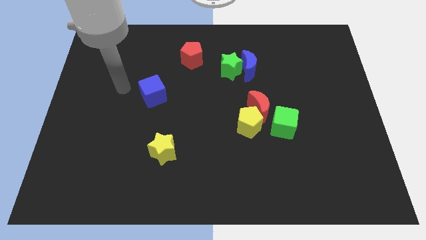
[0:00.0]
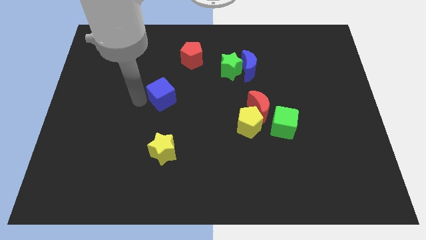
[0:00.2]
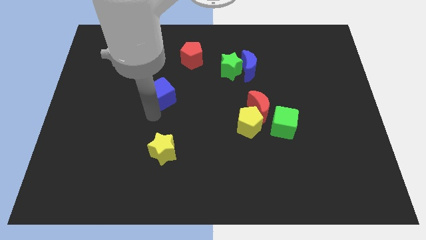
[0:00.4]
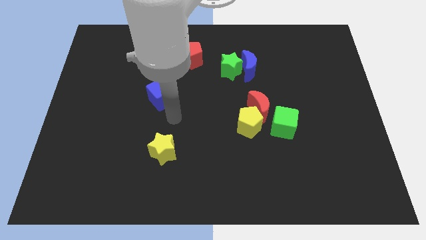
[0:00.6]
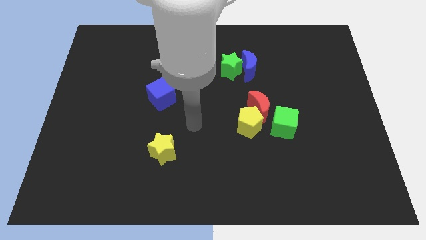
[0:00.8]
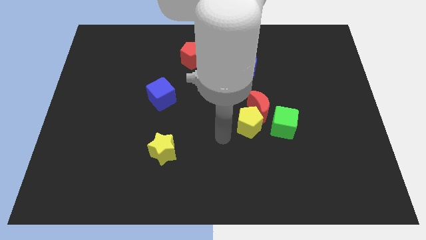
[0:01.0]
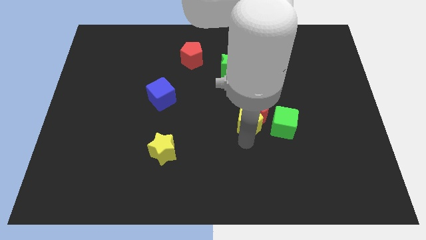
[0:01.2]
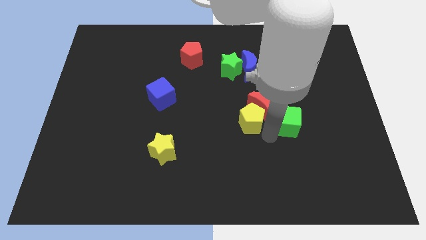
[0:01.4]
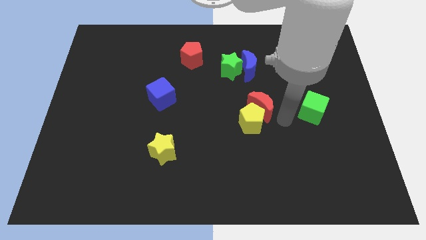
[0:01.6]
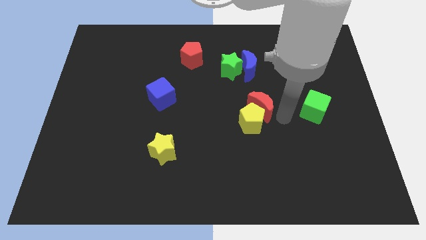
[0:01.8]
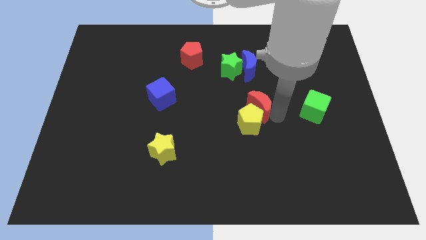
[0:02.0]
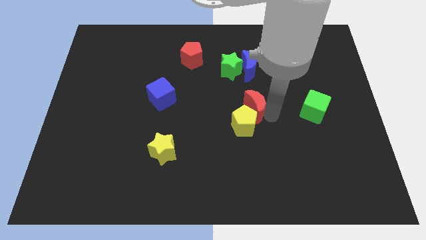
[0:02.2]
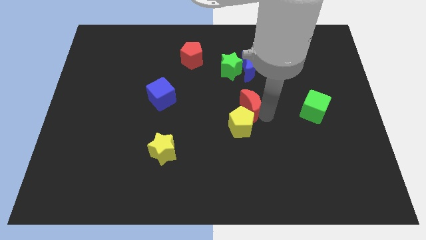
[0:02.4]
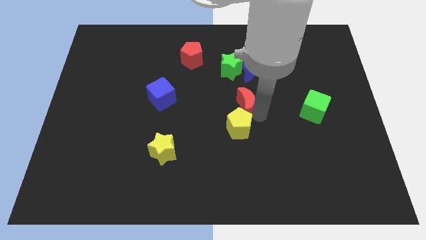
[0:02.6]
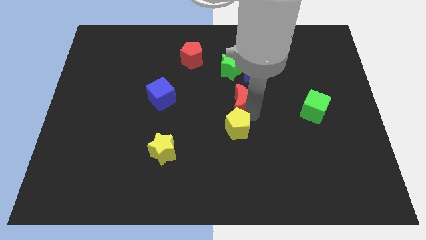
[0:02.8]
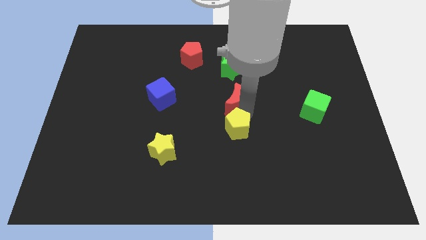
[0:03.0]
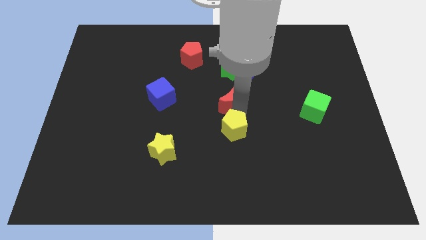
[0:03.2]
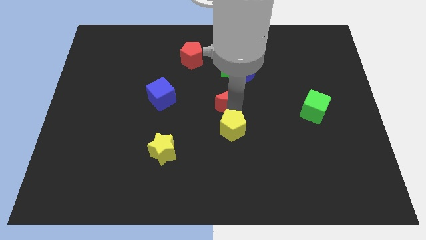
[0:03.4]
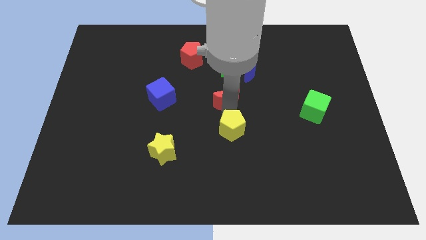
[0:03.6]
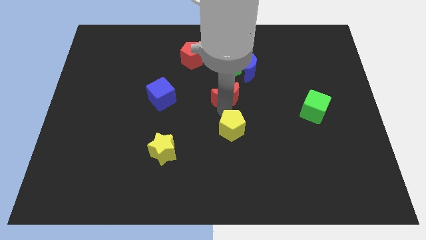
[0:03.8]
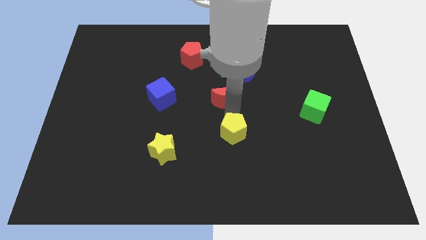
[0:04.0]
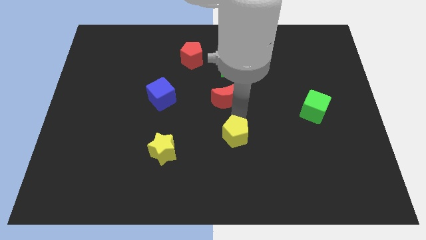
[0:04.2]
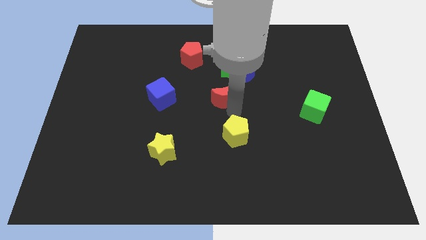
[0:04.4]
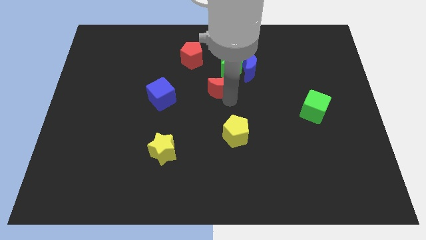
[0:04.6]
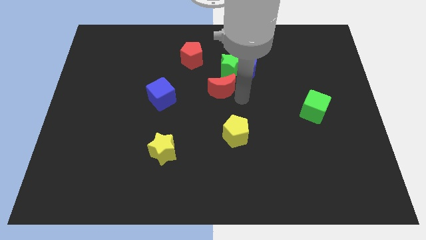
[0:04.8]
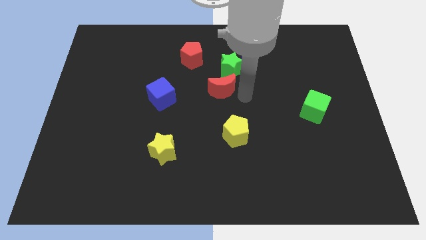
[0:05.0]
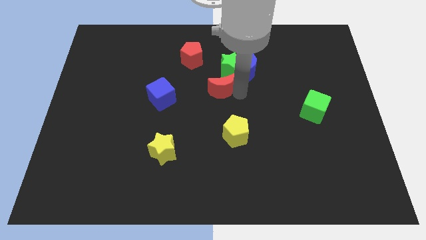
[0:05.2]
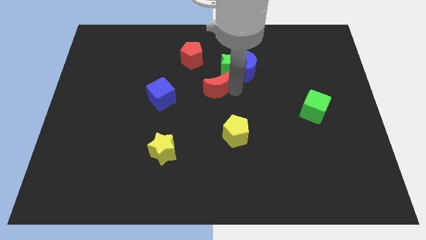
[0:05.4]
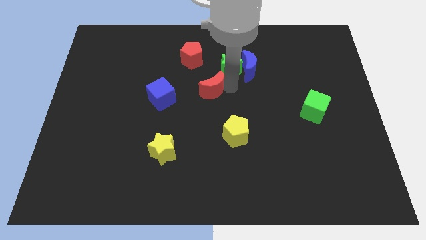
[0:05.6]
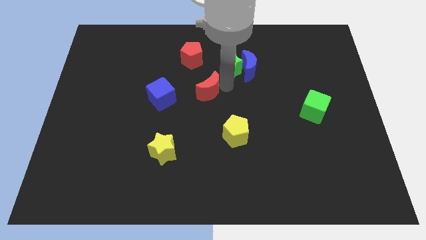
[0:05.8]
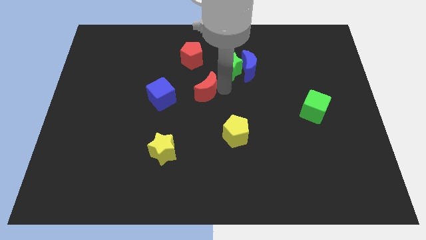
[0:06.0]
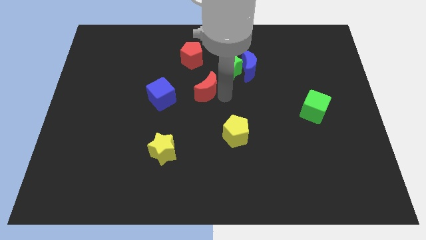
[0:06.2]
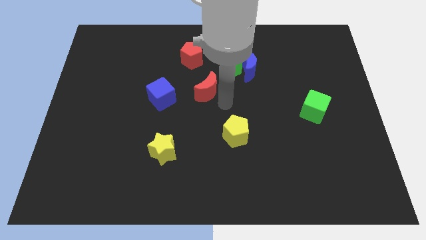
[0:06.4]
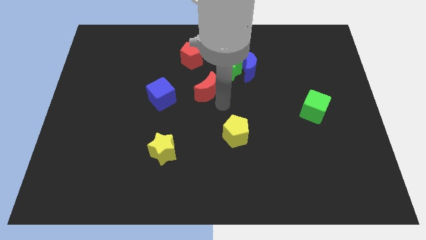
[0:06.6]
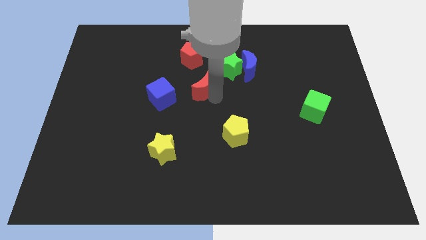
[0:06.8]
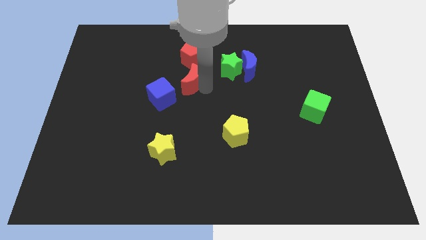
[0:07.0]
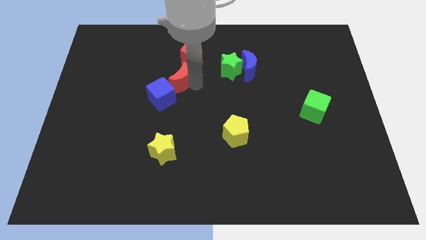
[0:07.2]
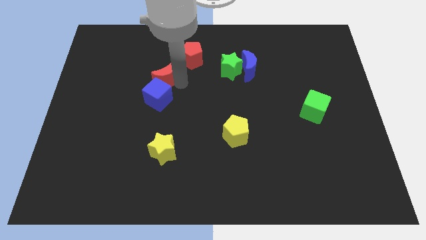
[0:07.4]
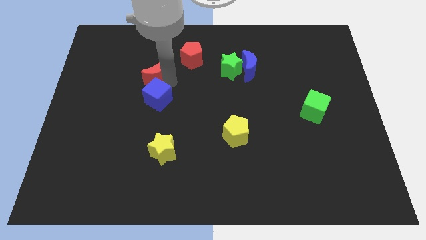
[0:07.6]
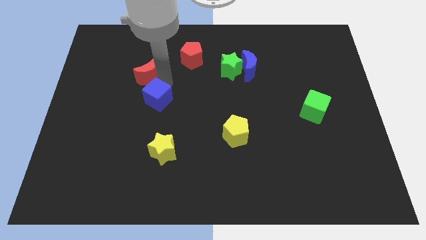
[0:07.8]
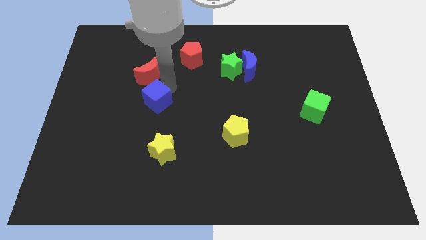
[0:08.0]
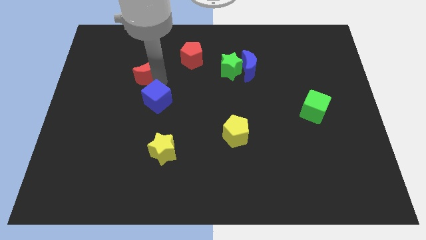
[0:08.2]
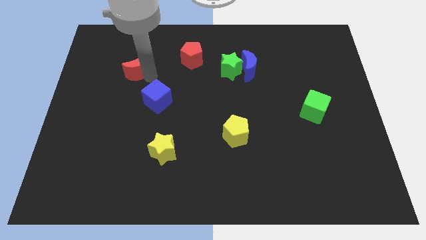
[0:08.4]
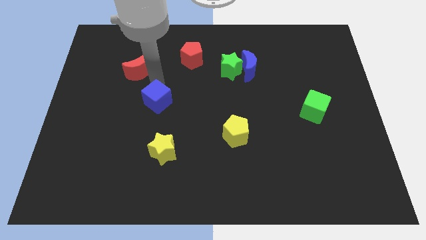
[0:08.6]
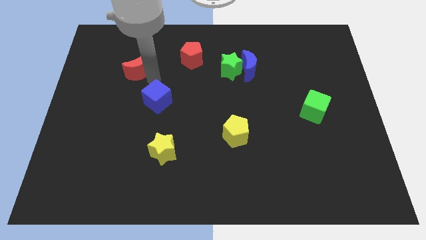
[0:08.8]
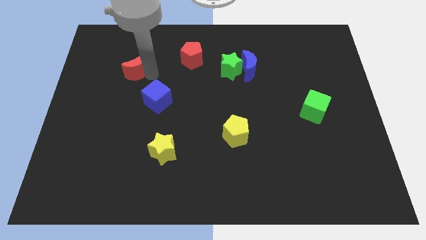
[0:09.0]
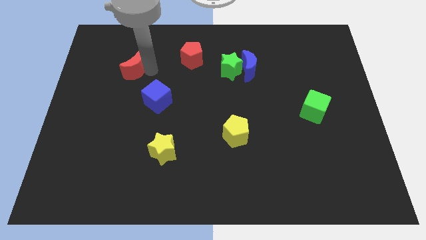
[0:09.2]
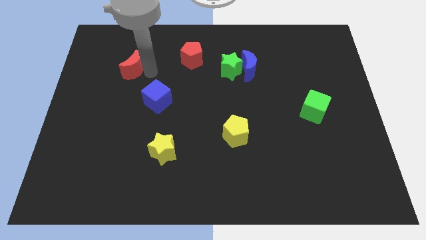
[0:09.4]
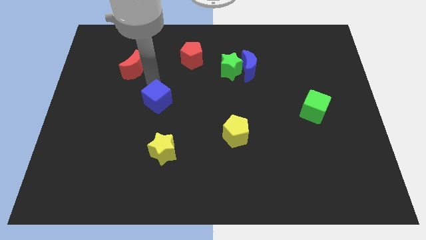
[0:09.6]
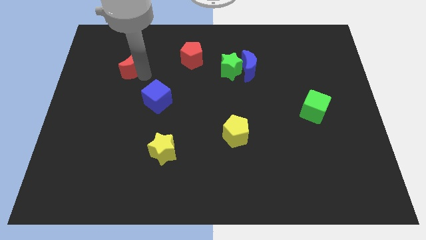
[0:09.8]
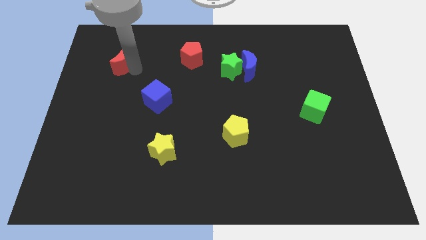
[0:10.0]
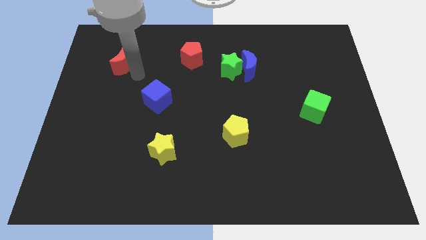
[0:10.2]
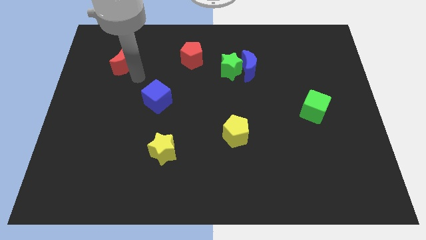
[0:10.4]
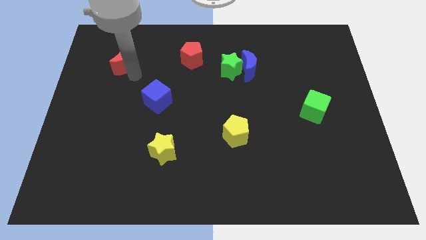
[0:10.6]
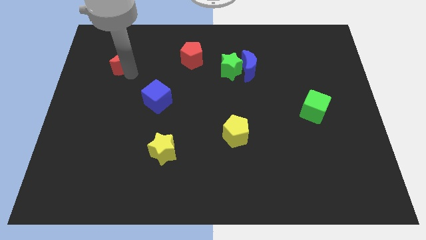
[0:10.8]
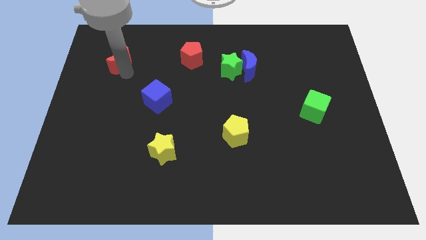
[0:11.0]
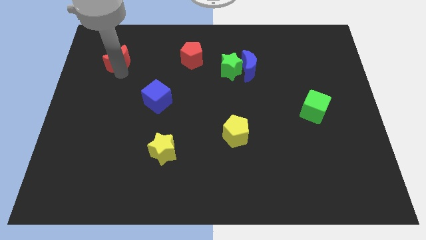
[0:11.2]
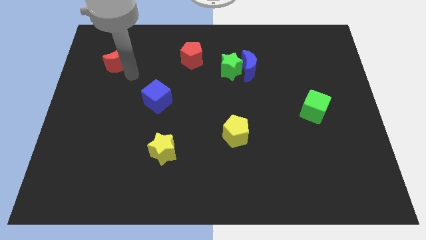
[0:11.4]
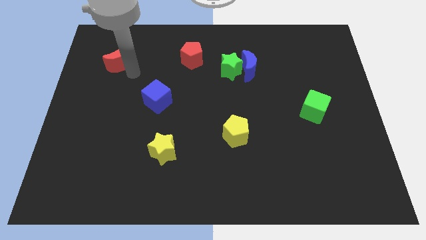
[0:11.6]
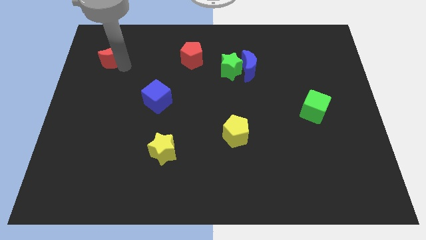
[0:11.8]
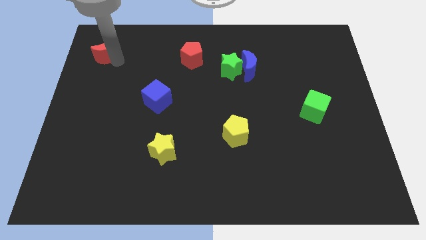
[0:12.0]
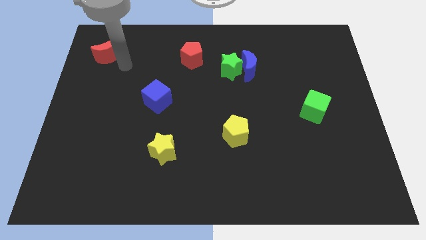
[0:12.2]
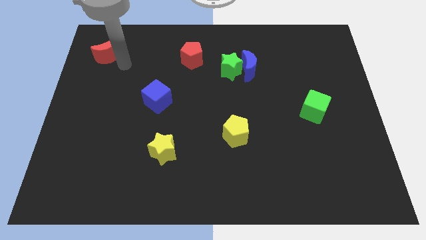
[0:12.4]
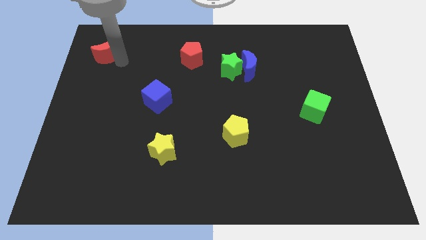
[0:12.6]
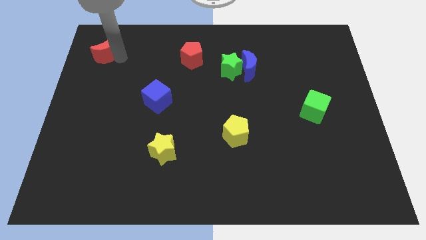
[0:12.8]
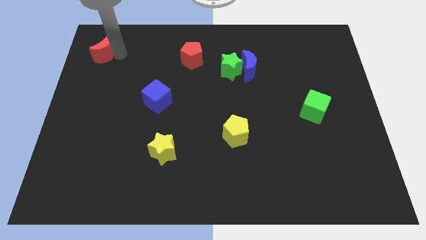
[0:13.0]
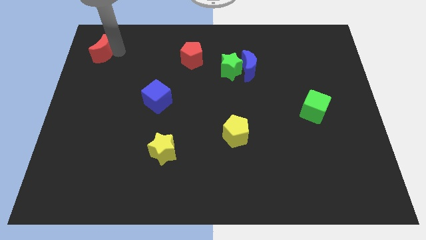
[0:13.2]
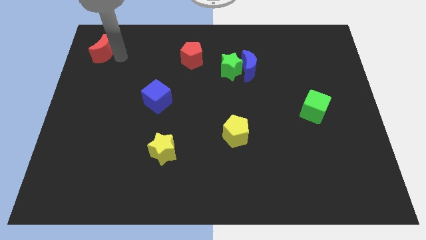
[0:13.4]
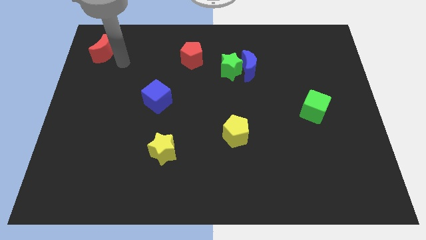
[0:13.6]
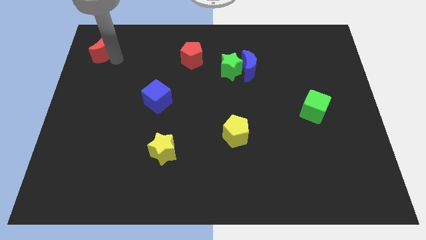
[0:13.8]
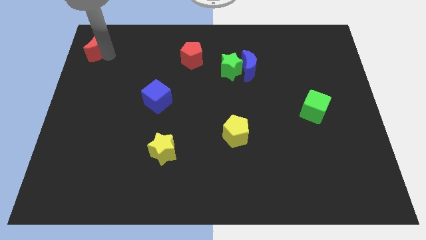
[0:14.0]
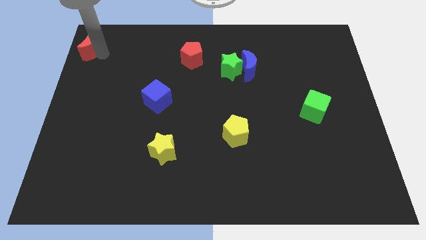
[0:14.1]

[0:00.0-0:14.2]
move the red moon to the top left
